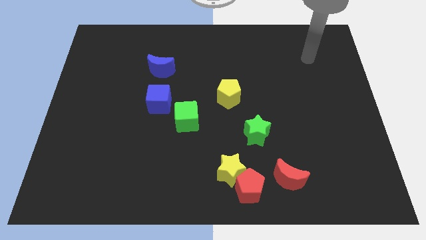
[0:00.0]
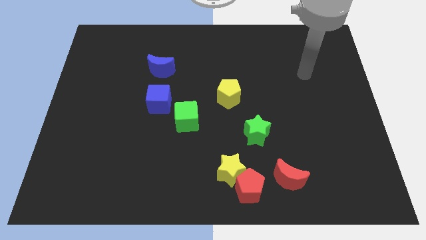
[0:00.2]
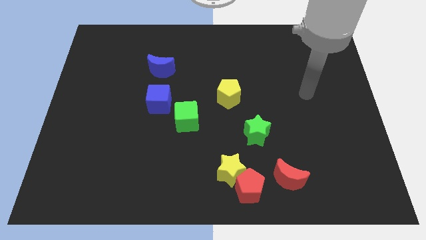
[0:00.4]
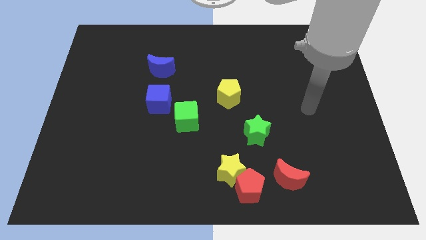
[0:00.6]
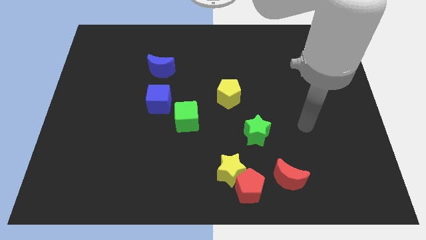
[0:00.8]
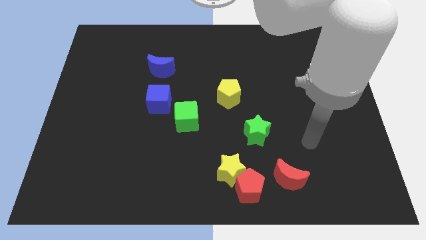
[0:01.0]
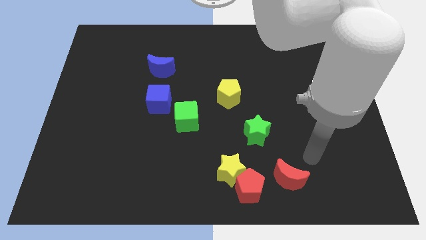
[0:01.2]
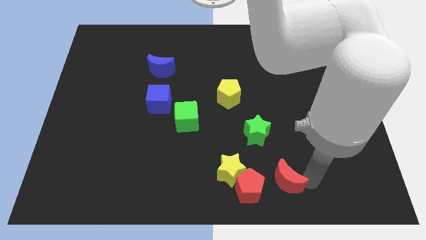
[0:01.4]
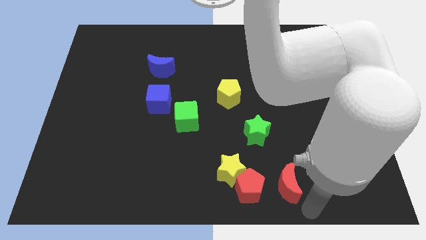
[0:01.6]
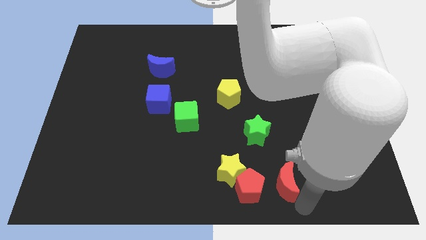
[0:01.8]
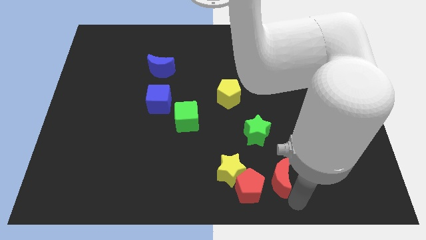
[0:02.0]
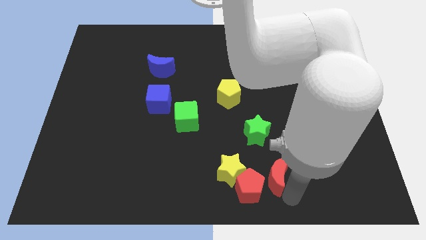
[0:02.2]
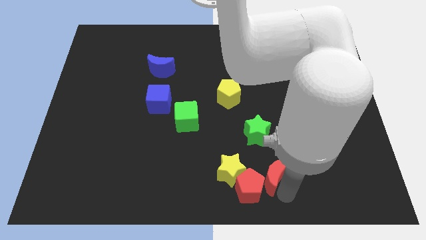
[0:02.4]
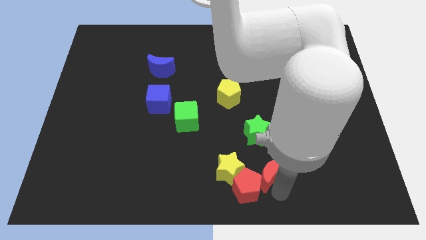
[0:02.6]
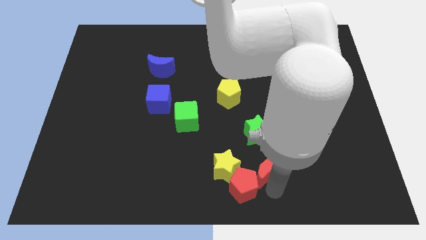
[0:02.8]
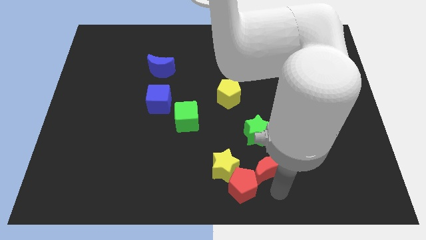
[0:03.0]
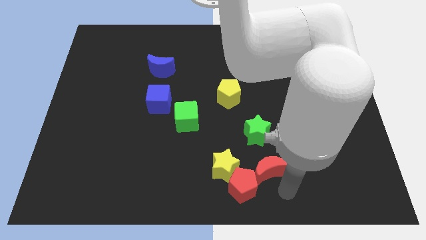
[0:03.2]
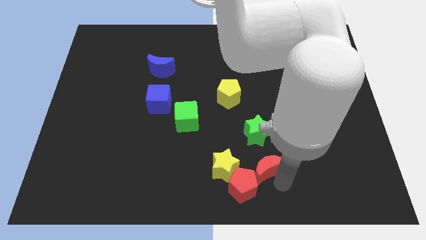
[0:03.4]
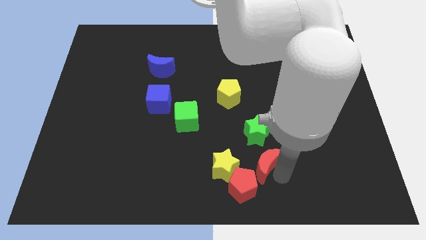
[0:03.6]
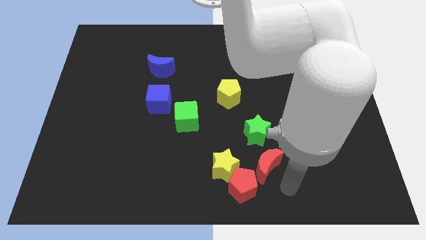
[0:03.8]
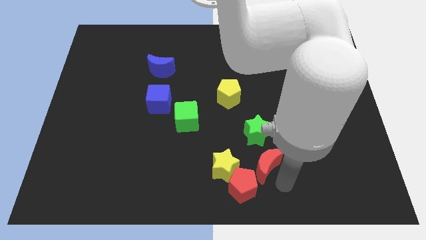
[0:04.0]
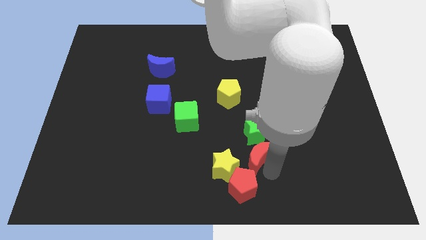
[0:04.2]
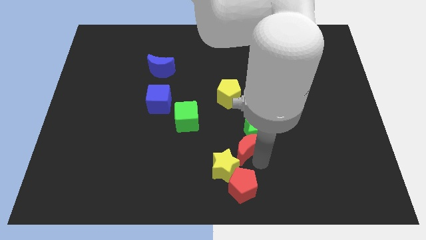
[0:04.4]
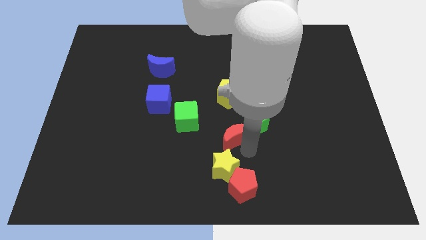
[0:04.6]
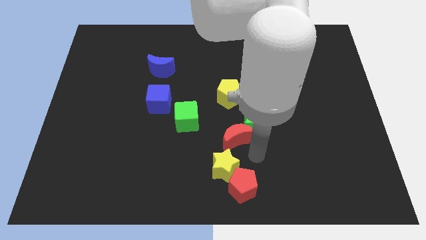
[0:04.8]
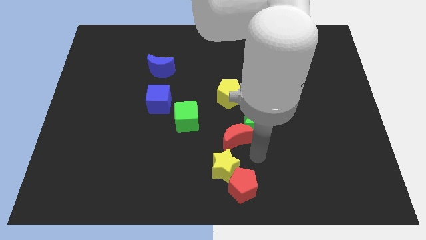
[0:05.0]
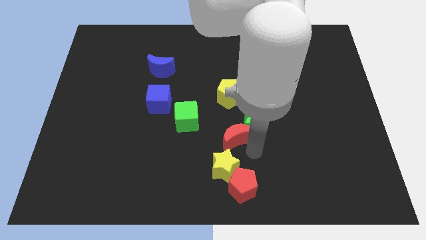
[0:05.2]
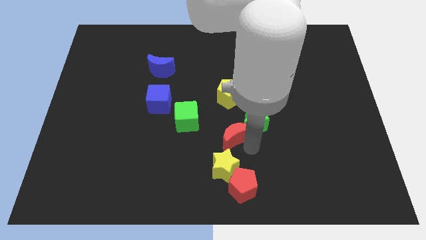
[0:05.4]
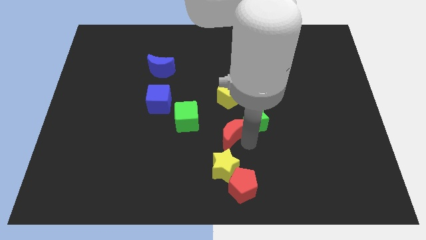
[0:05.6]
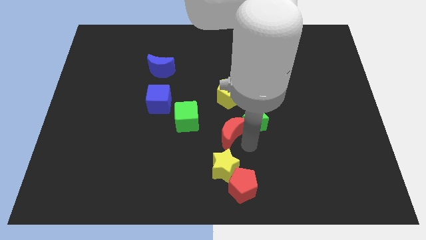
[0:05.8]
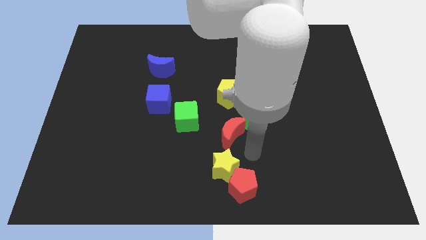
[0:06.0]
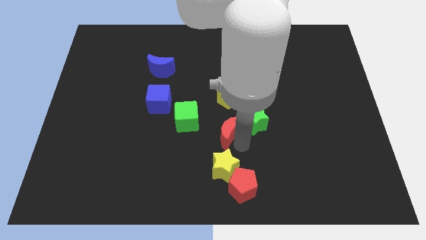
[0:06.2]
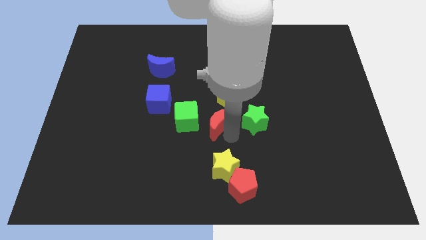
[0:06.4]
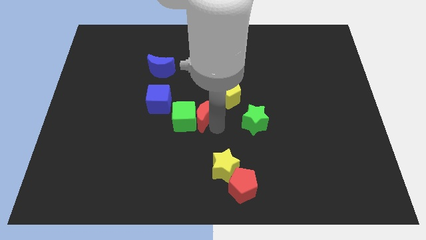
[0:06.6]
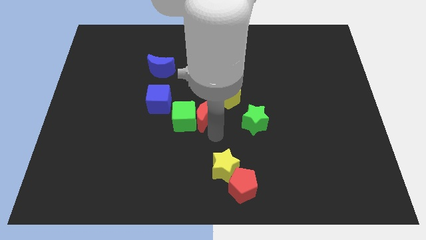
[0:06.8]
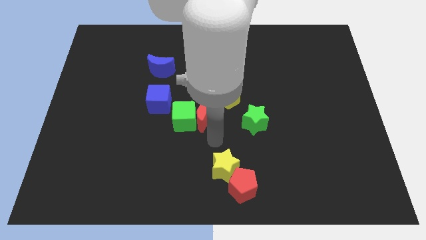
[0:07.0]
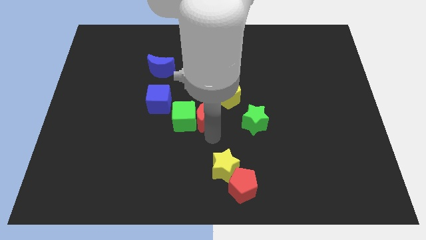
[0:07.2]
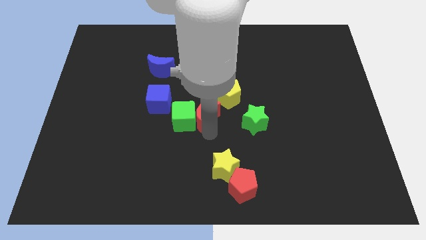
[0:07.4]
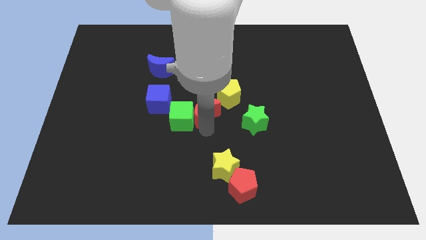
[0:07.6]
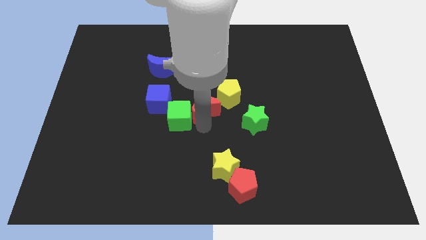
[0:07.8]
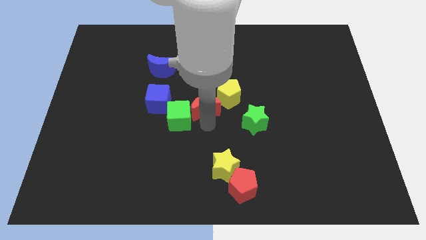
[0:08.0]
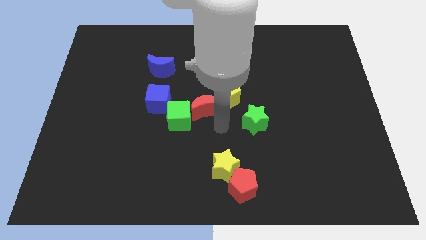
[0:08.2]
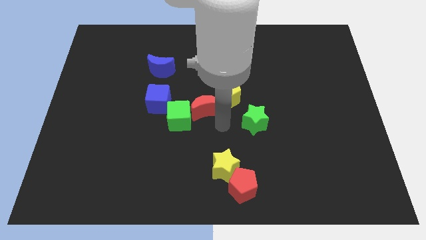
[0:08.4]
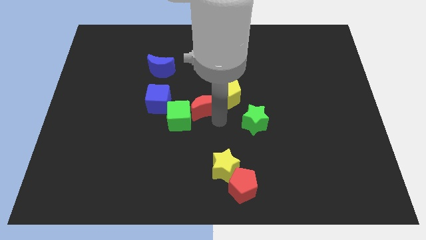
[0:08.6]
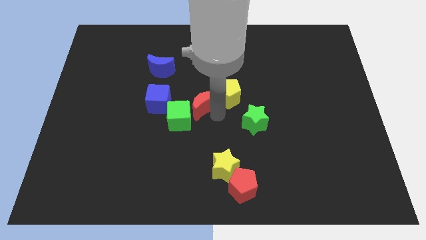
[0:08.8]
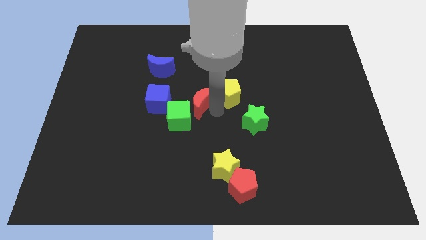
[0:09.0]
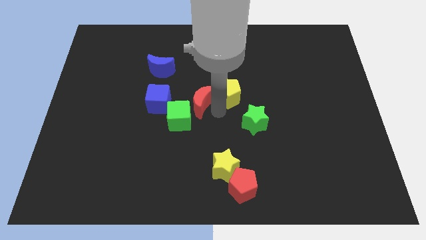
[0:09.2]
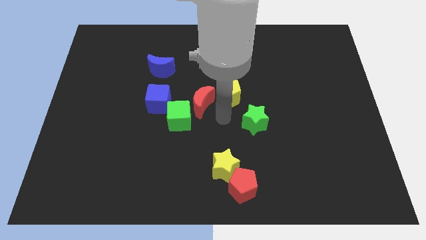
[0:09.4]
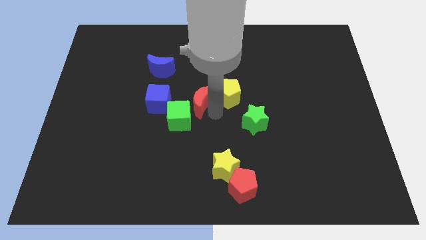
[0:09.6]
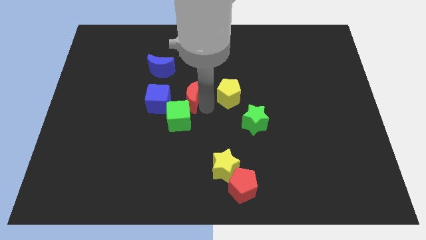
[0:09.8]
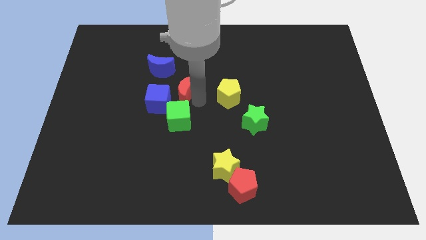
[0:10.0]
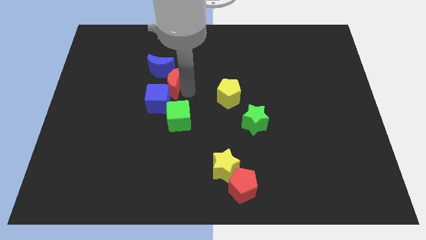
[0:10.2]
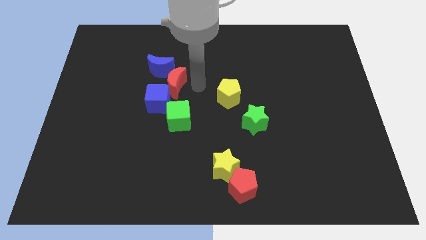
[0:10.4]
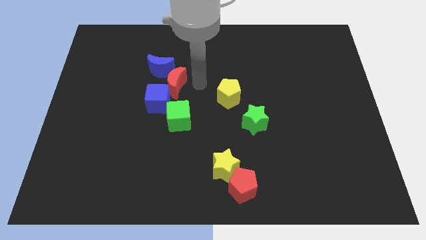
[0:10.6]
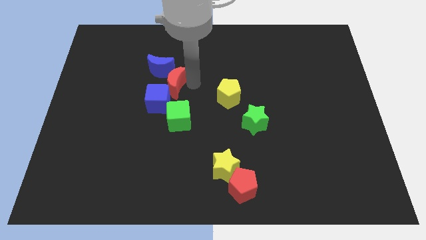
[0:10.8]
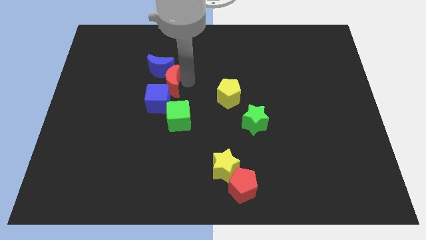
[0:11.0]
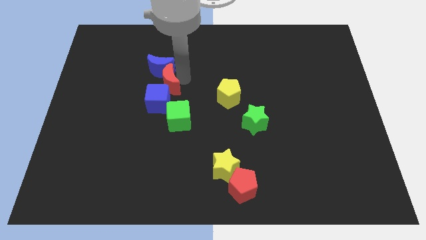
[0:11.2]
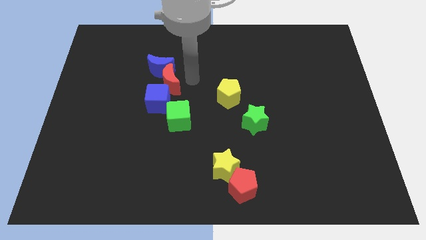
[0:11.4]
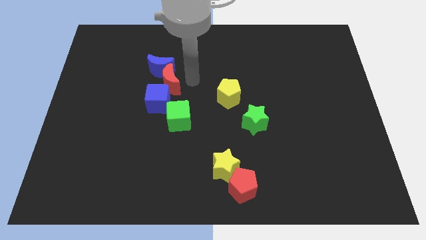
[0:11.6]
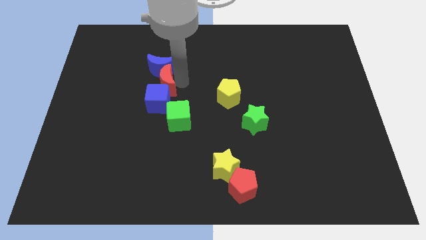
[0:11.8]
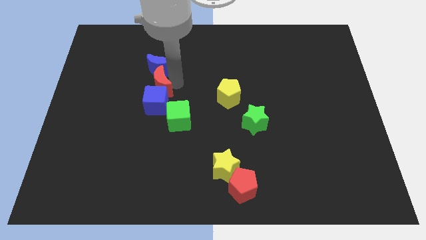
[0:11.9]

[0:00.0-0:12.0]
push the red moon to the bottom left of the blue moon
